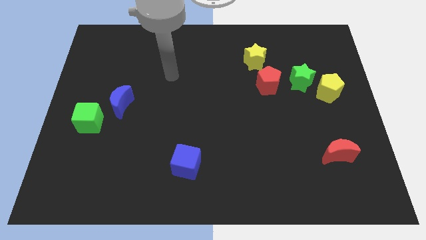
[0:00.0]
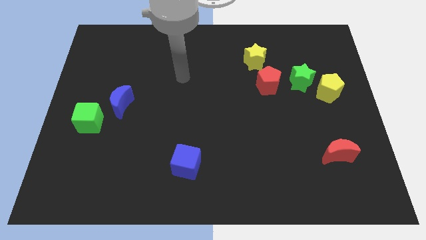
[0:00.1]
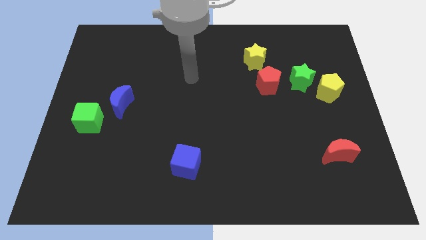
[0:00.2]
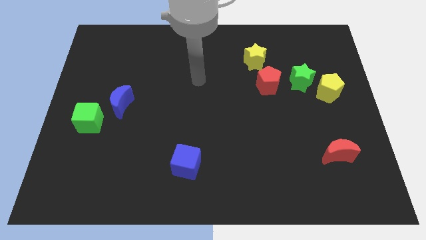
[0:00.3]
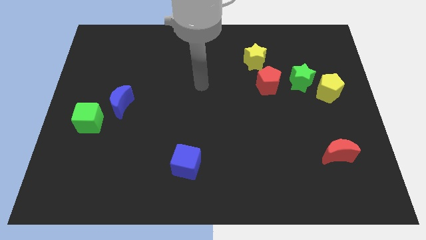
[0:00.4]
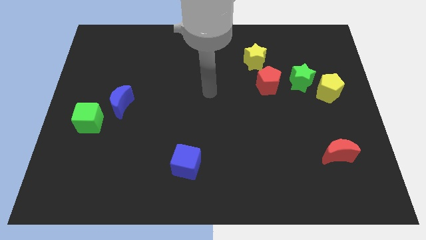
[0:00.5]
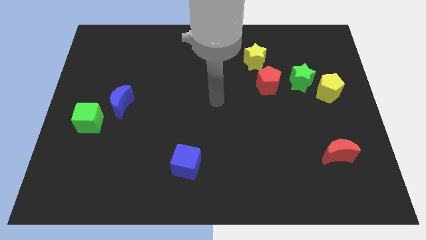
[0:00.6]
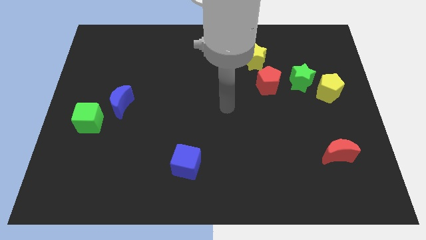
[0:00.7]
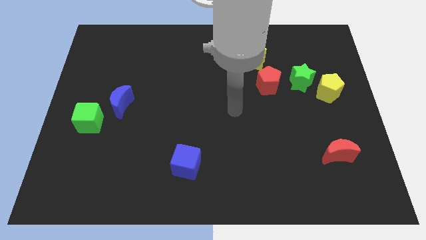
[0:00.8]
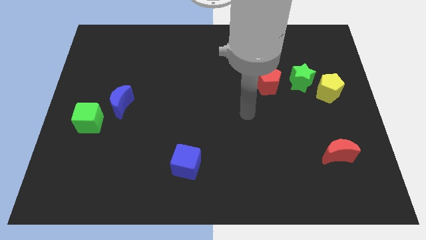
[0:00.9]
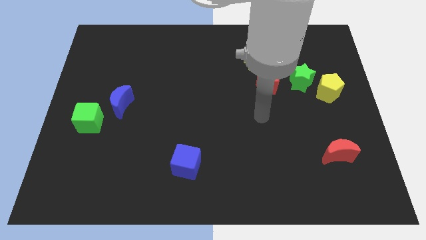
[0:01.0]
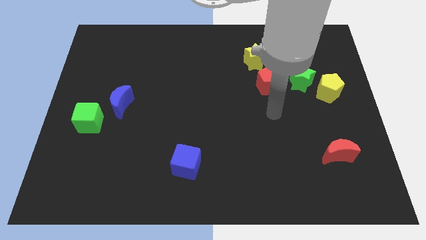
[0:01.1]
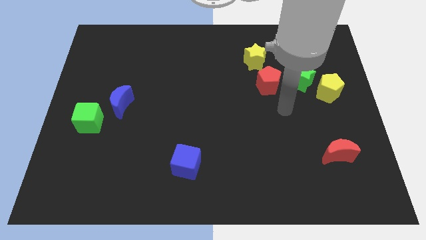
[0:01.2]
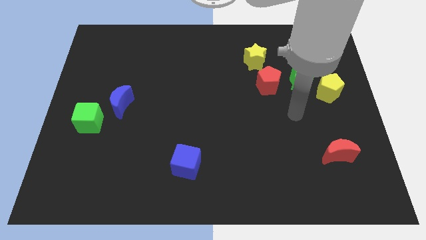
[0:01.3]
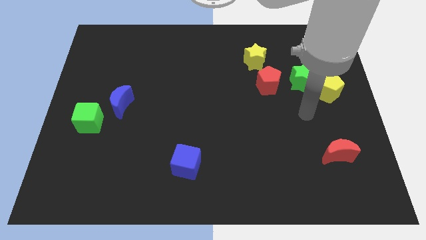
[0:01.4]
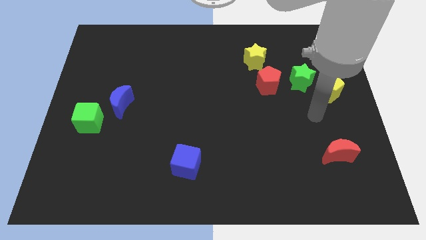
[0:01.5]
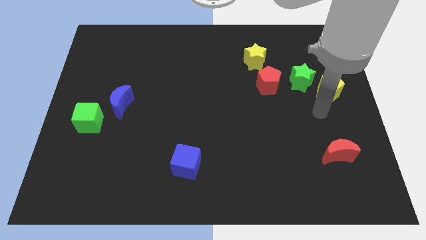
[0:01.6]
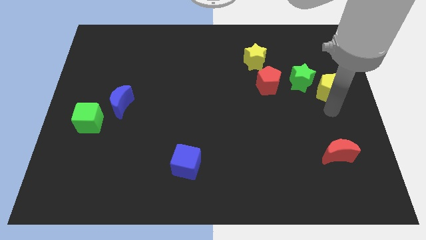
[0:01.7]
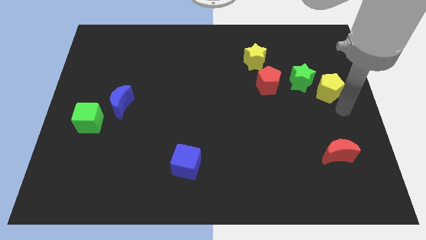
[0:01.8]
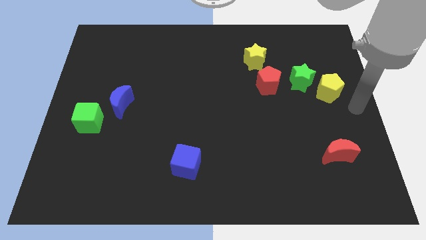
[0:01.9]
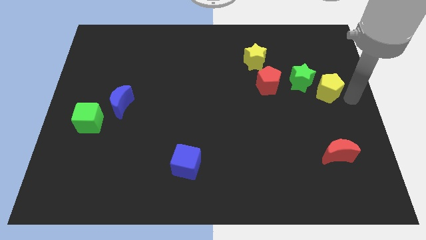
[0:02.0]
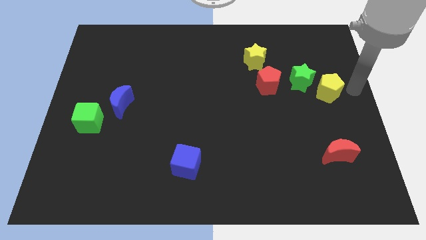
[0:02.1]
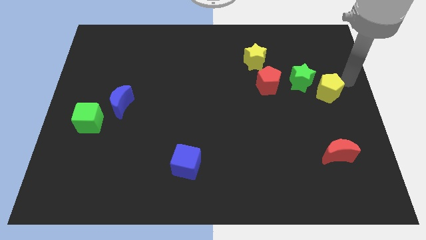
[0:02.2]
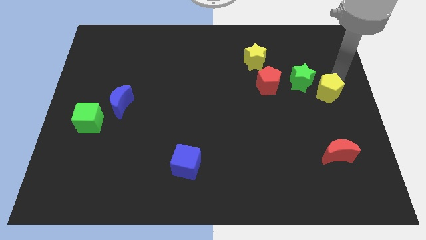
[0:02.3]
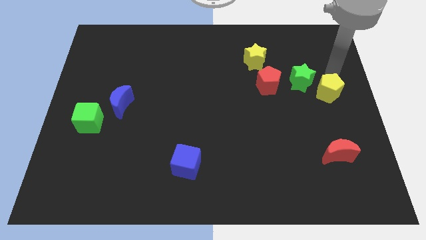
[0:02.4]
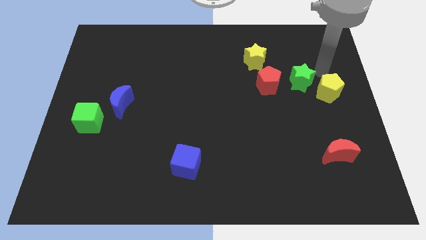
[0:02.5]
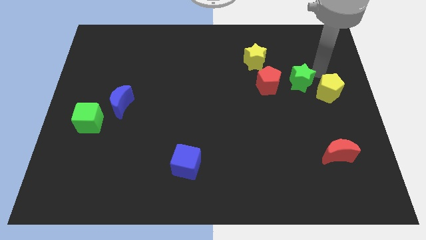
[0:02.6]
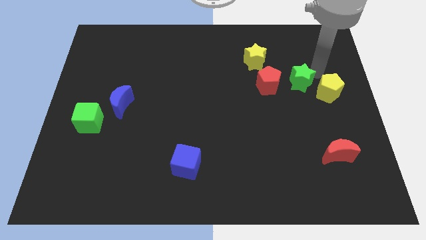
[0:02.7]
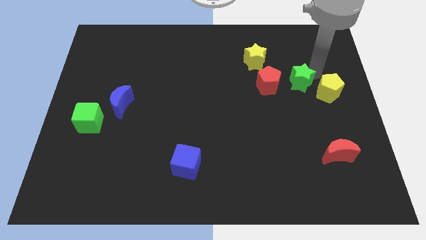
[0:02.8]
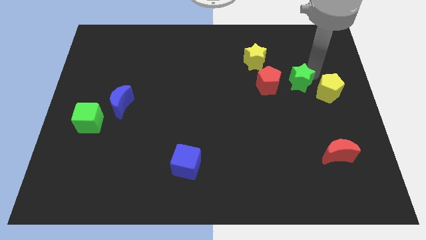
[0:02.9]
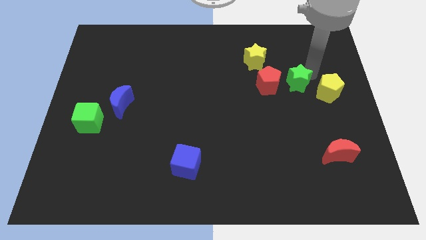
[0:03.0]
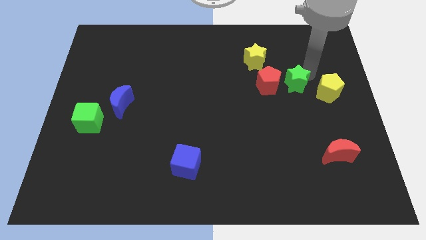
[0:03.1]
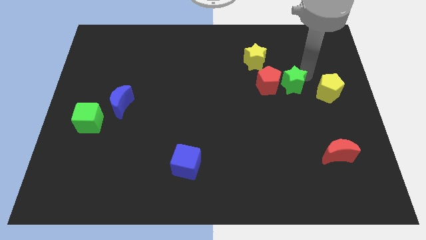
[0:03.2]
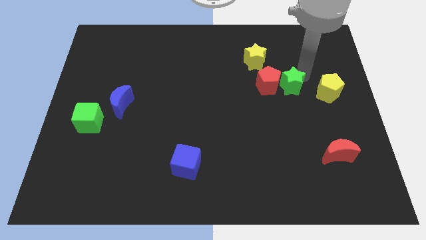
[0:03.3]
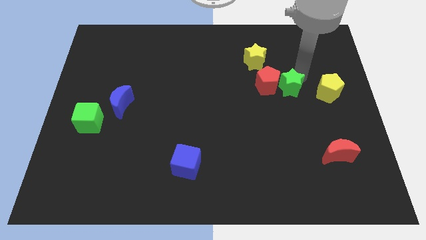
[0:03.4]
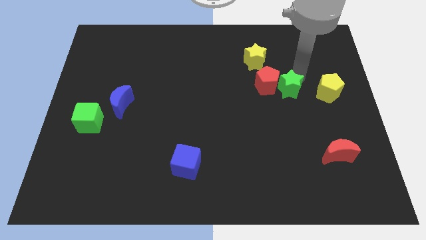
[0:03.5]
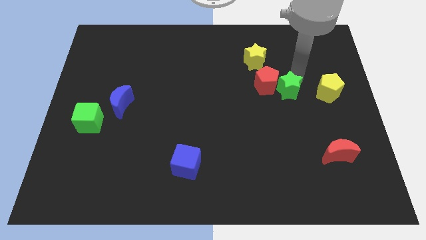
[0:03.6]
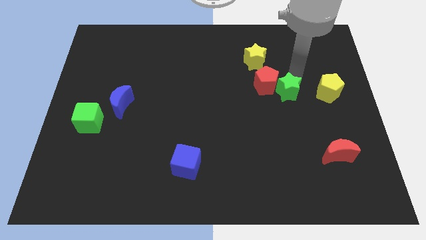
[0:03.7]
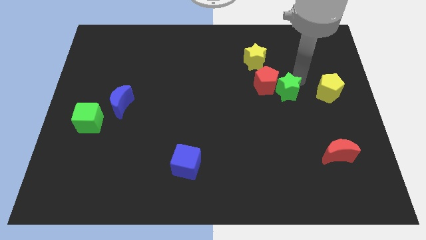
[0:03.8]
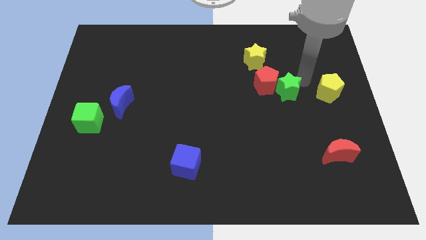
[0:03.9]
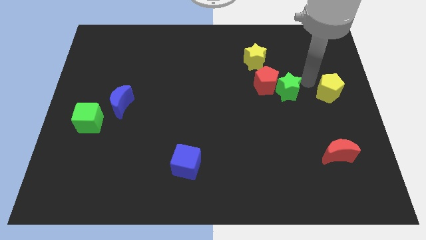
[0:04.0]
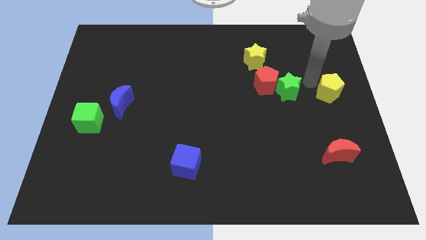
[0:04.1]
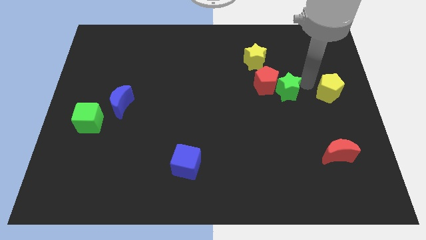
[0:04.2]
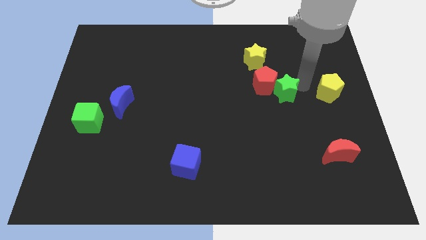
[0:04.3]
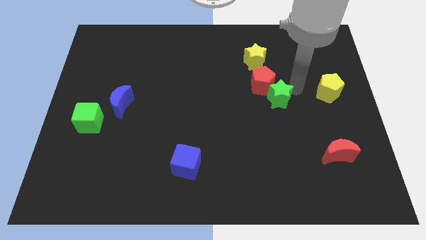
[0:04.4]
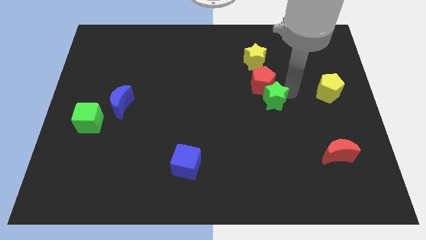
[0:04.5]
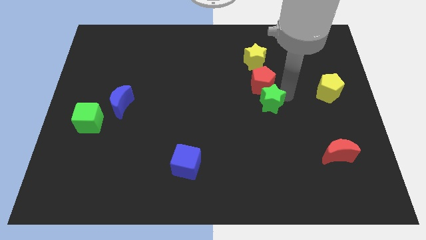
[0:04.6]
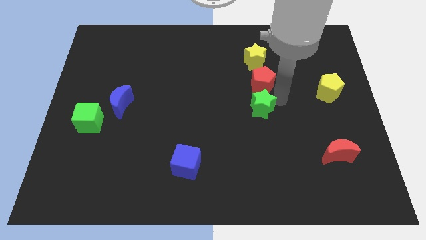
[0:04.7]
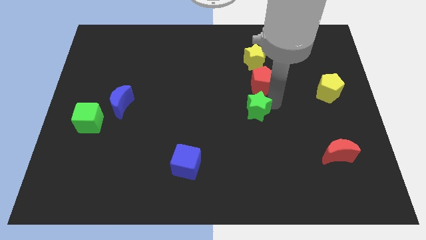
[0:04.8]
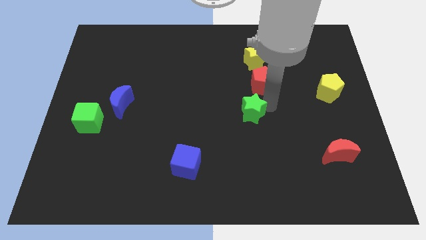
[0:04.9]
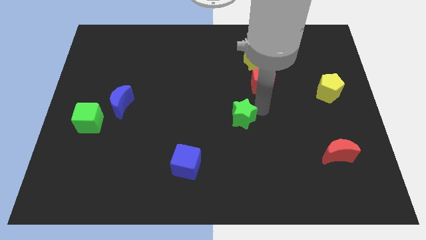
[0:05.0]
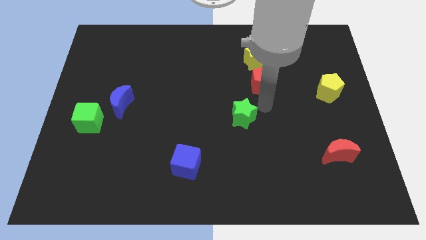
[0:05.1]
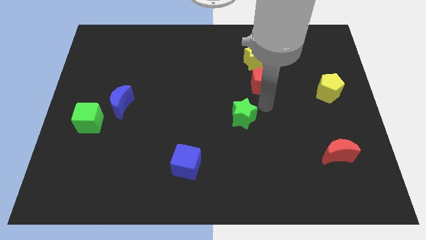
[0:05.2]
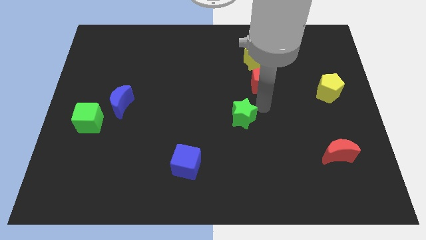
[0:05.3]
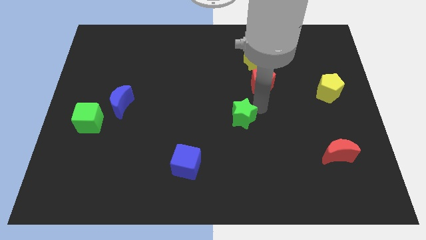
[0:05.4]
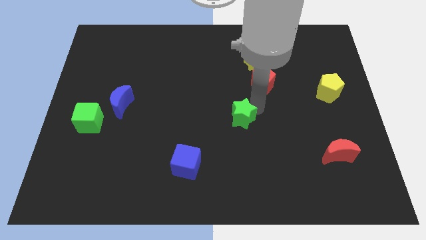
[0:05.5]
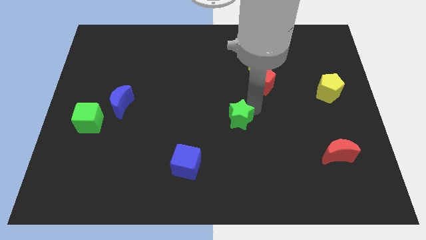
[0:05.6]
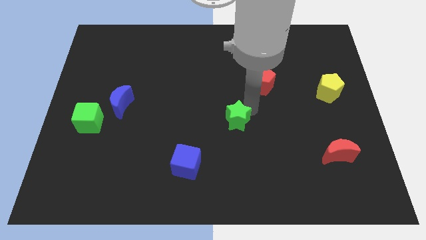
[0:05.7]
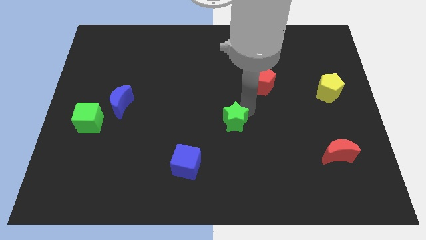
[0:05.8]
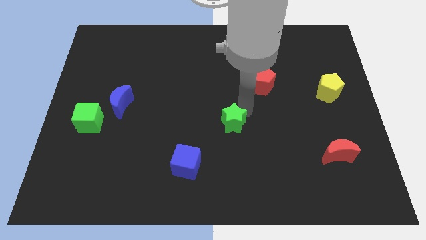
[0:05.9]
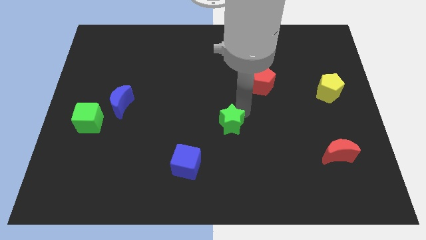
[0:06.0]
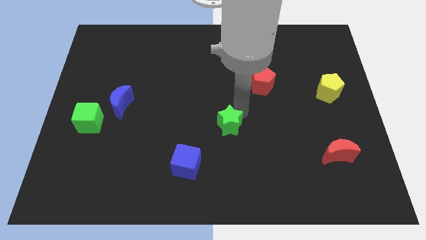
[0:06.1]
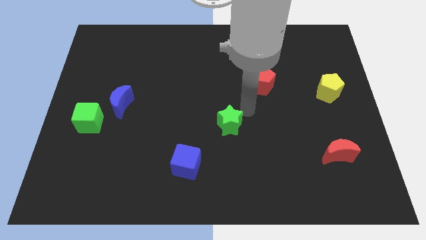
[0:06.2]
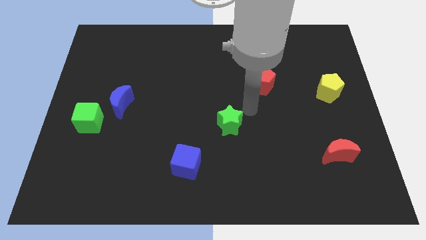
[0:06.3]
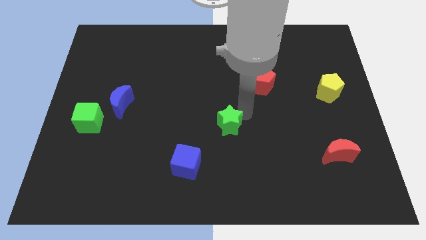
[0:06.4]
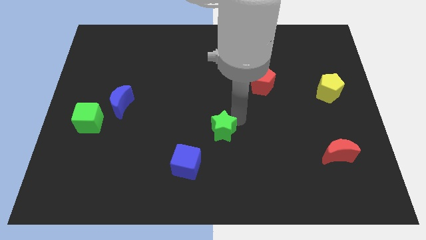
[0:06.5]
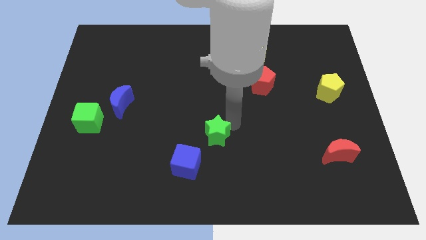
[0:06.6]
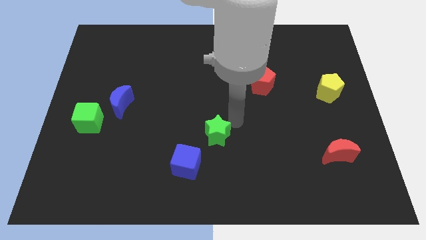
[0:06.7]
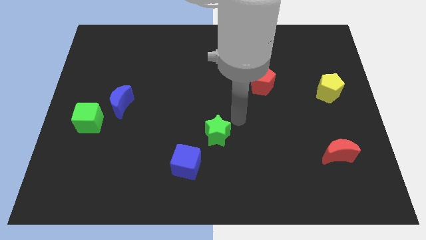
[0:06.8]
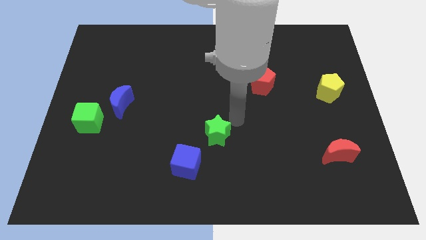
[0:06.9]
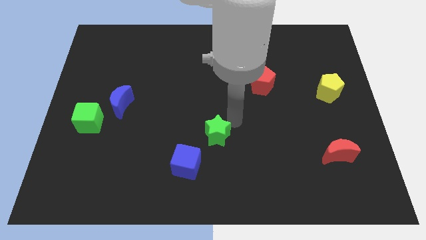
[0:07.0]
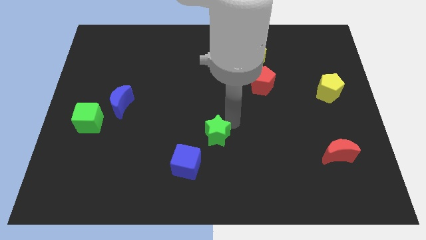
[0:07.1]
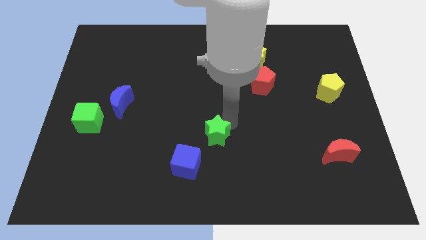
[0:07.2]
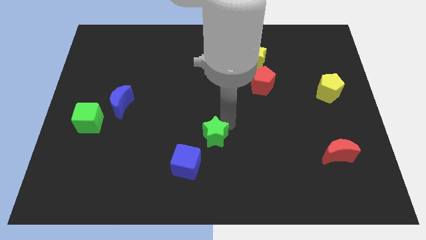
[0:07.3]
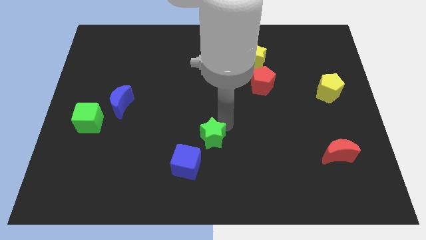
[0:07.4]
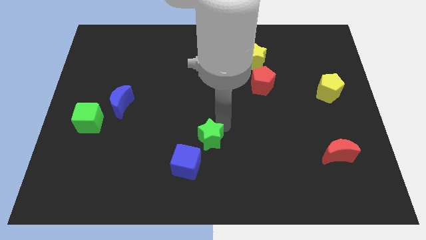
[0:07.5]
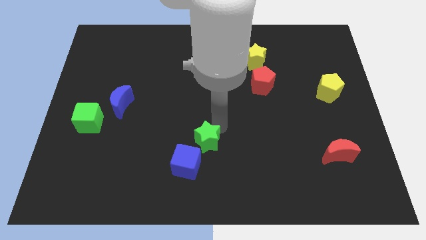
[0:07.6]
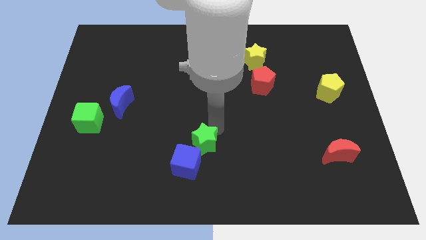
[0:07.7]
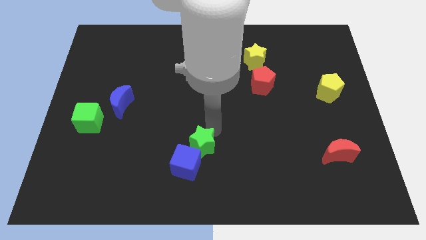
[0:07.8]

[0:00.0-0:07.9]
put the green star to the blue cube
